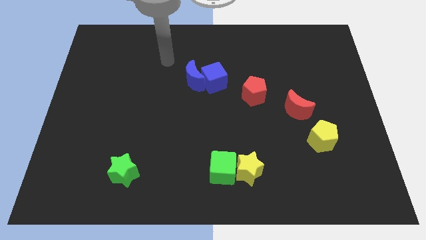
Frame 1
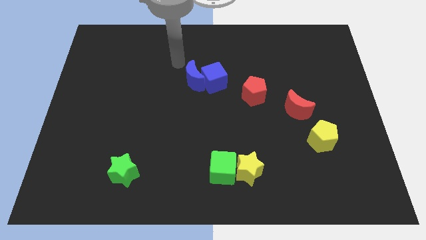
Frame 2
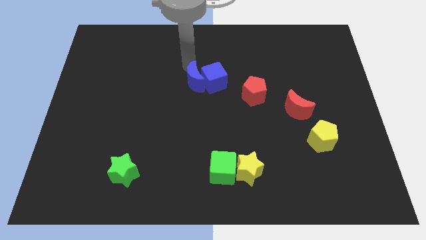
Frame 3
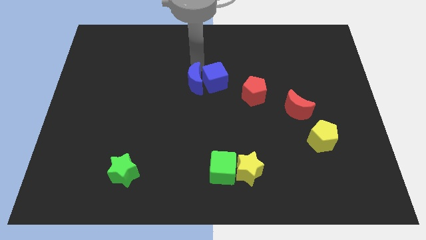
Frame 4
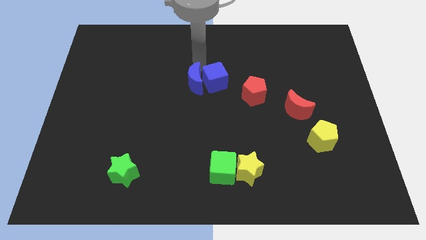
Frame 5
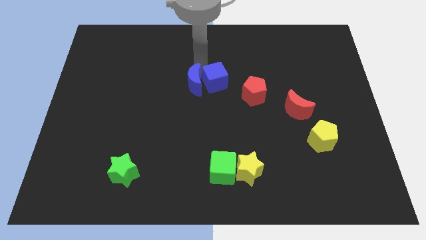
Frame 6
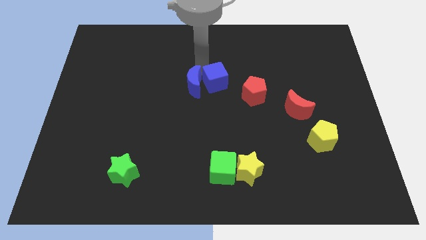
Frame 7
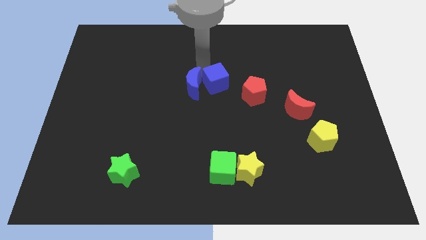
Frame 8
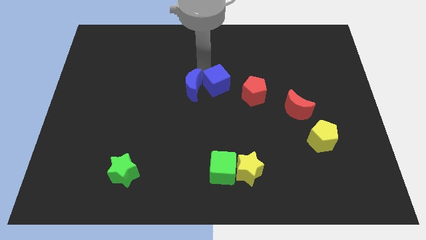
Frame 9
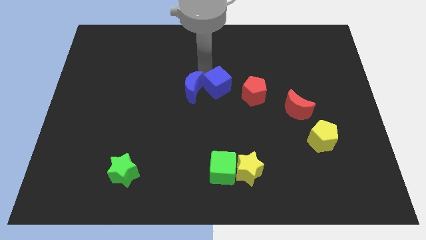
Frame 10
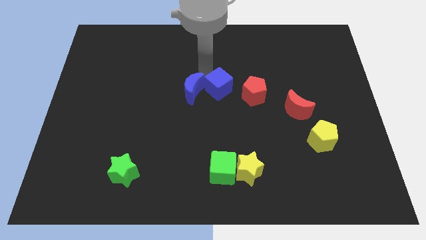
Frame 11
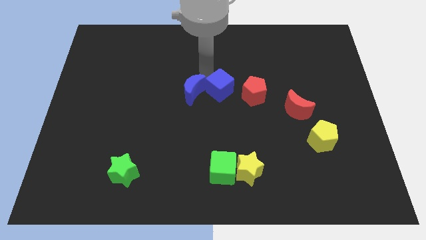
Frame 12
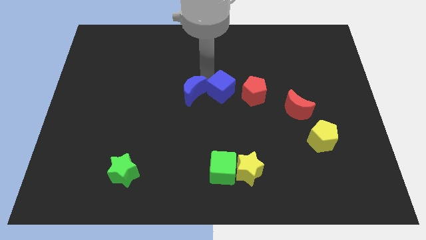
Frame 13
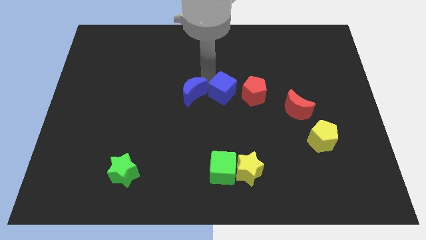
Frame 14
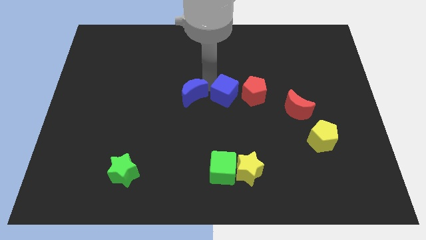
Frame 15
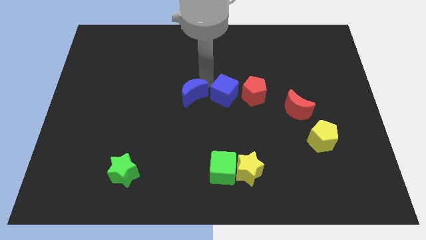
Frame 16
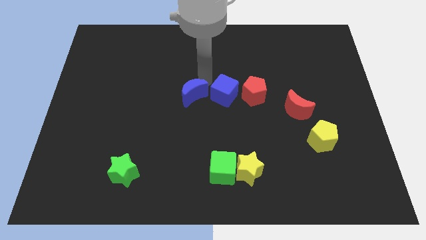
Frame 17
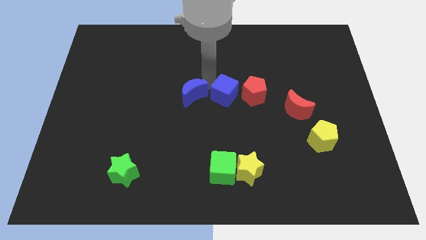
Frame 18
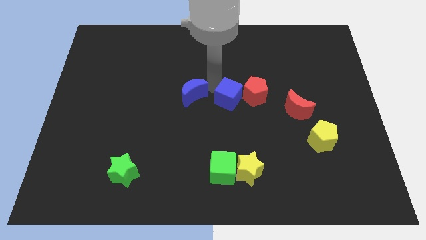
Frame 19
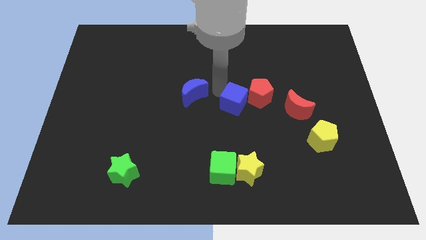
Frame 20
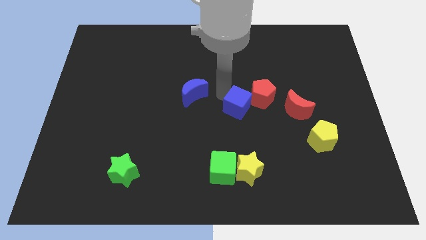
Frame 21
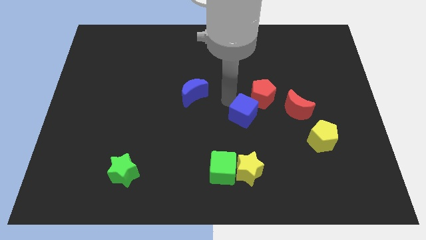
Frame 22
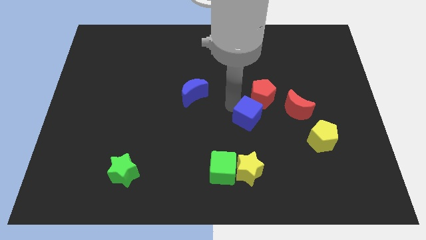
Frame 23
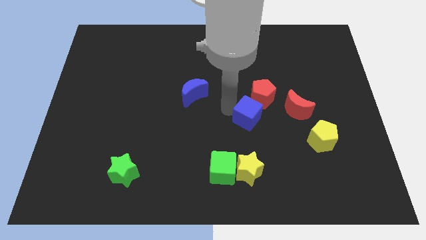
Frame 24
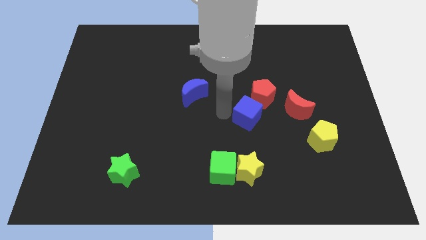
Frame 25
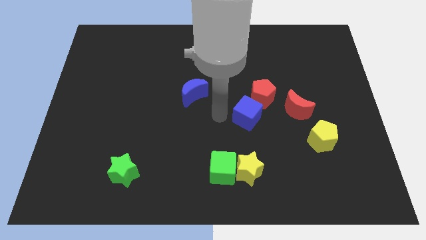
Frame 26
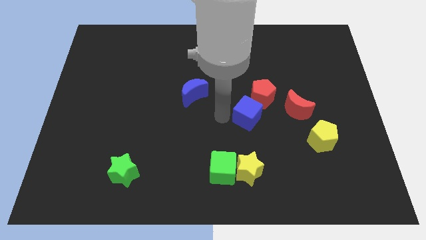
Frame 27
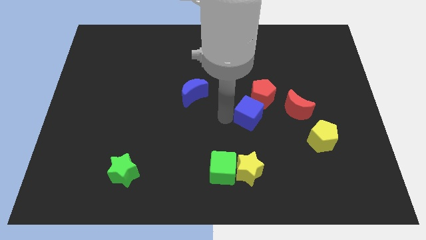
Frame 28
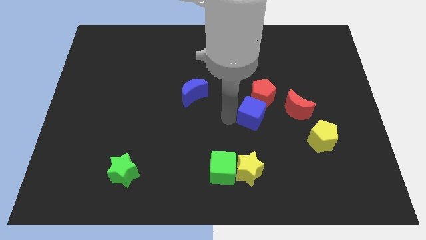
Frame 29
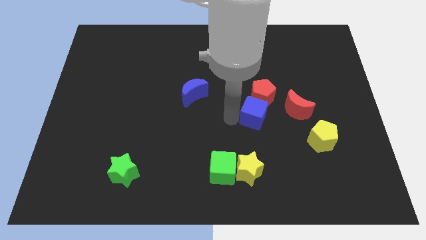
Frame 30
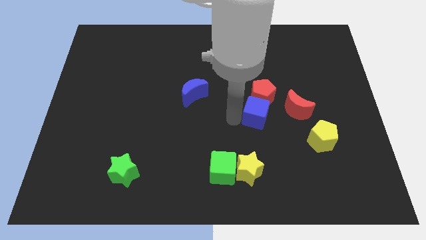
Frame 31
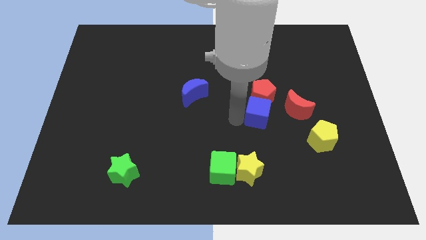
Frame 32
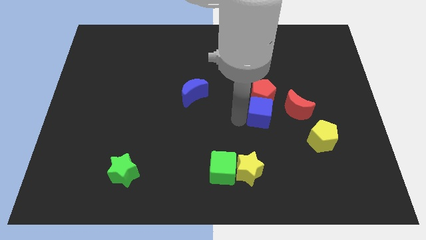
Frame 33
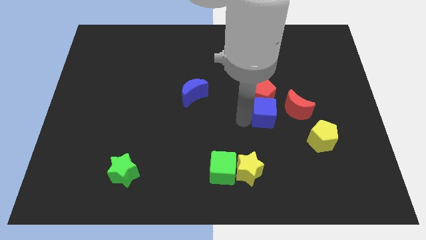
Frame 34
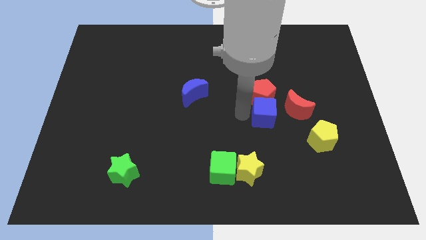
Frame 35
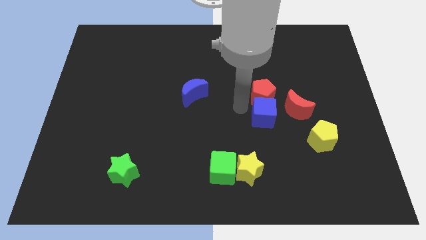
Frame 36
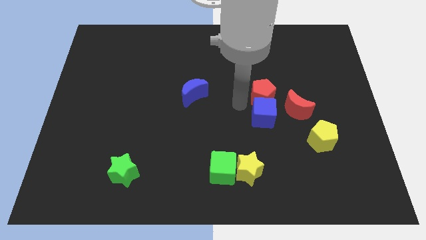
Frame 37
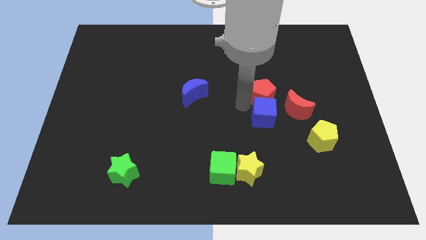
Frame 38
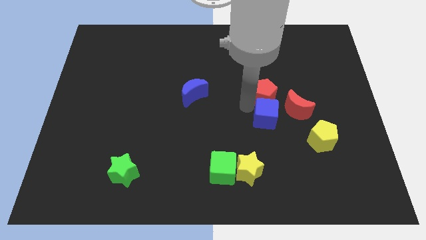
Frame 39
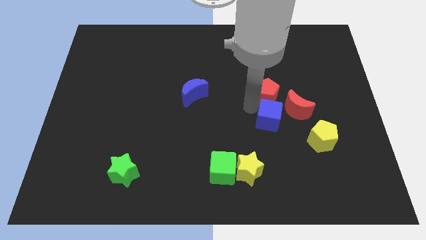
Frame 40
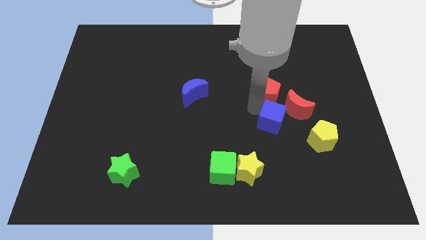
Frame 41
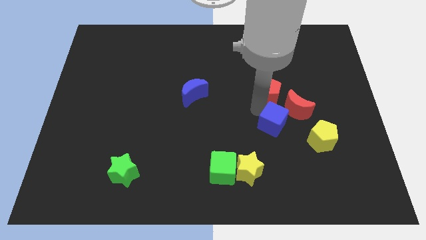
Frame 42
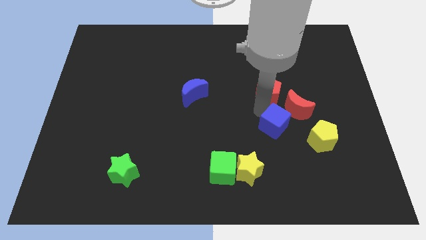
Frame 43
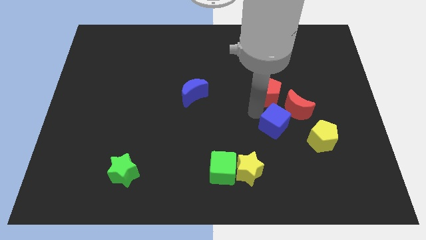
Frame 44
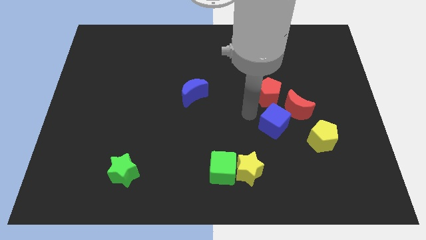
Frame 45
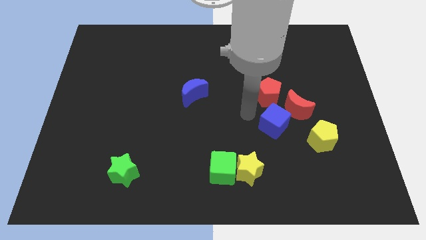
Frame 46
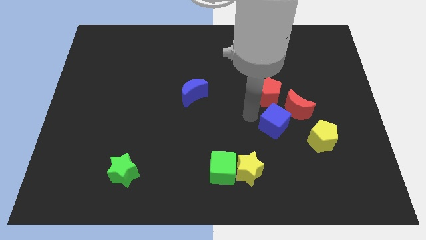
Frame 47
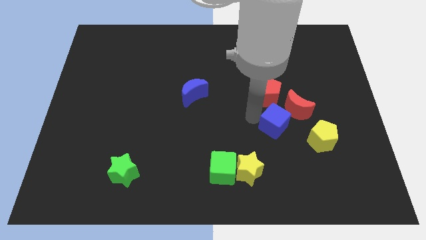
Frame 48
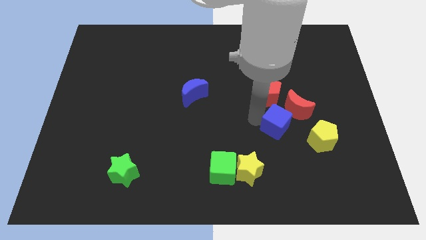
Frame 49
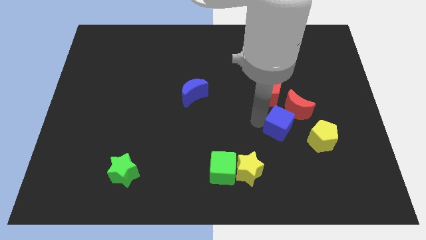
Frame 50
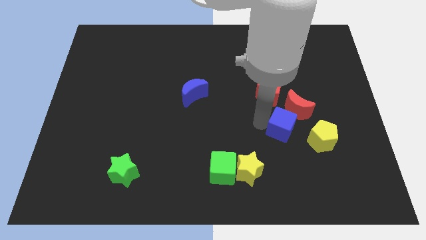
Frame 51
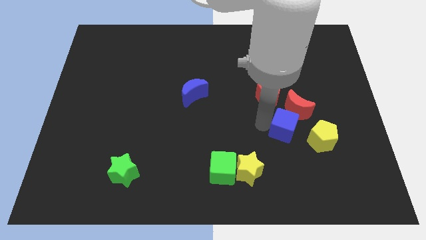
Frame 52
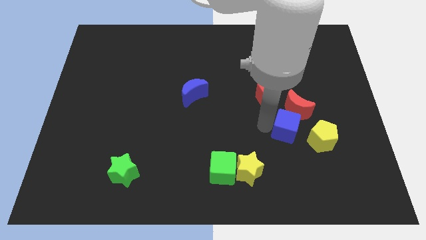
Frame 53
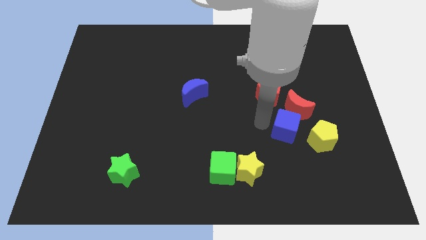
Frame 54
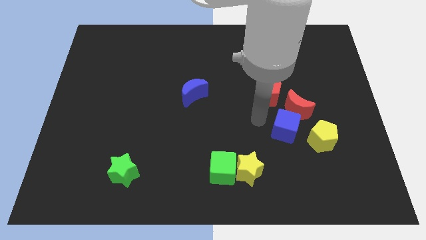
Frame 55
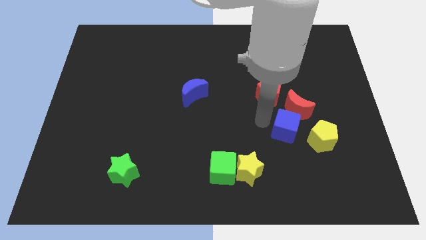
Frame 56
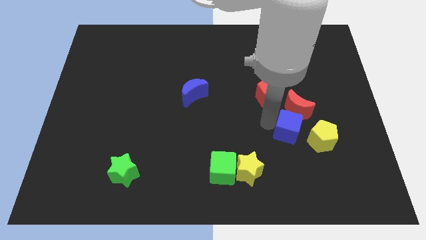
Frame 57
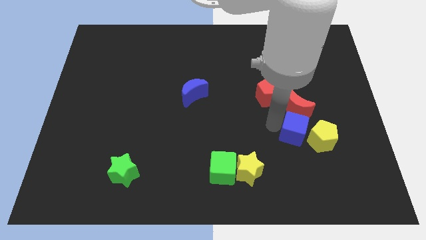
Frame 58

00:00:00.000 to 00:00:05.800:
push the blue cube close to the yellow pentagon

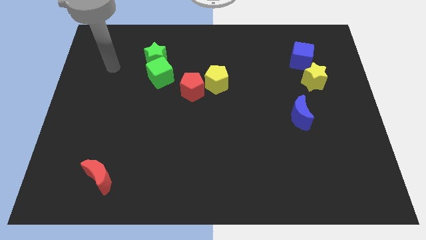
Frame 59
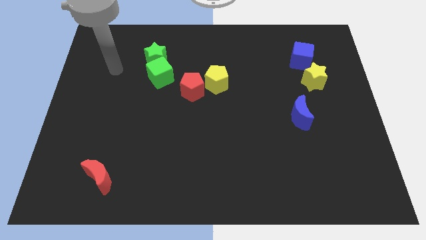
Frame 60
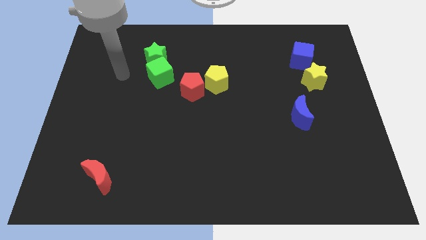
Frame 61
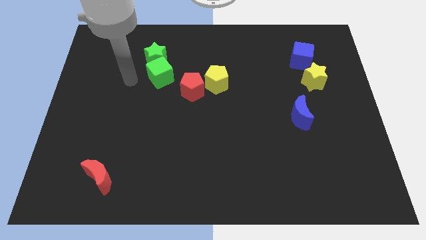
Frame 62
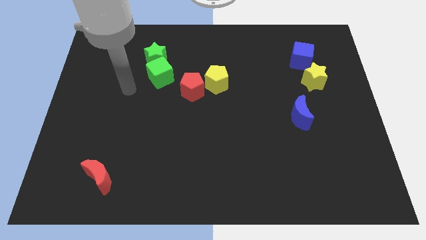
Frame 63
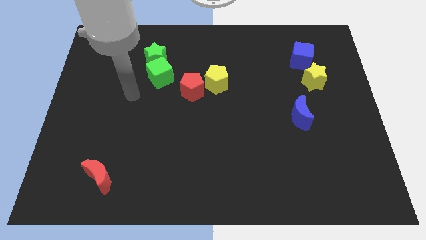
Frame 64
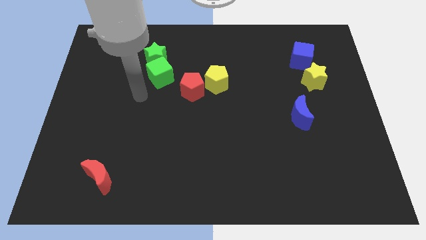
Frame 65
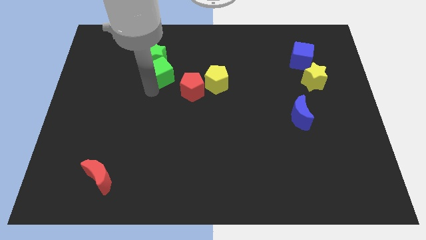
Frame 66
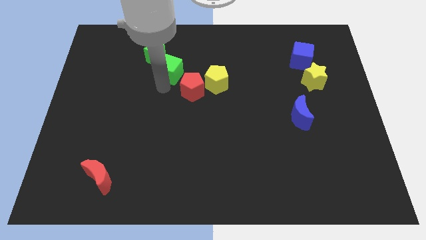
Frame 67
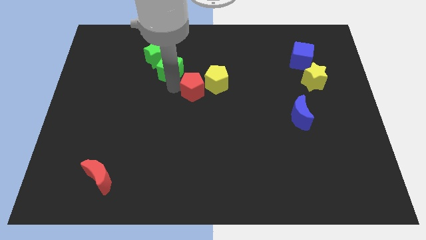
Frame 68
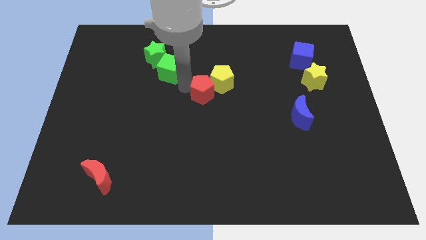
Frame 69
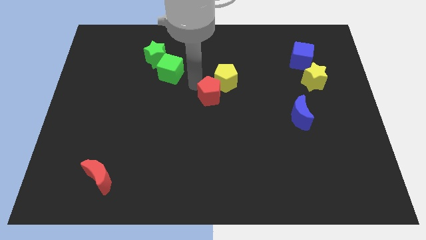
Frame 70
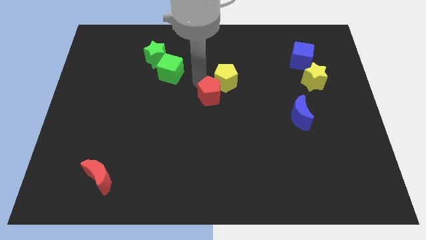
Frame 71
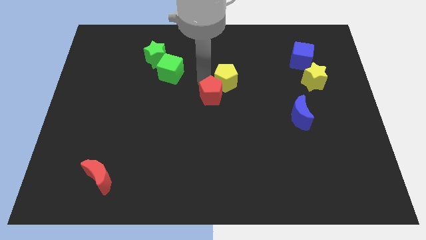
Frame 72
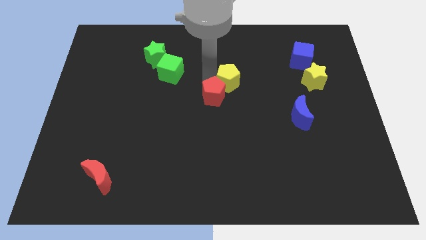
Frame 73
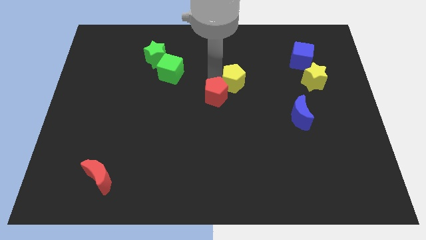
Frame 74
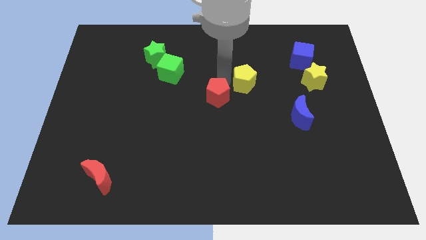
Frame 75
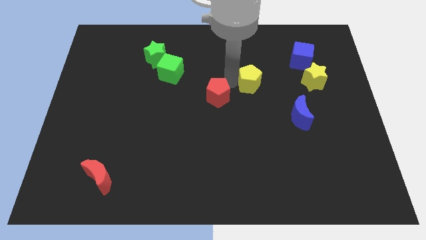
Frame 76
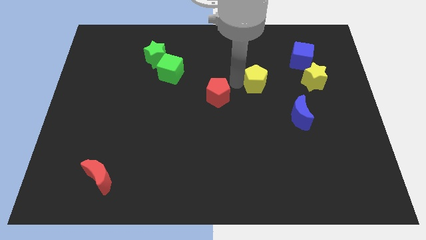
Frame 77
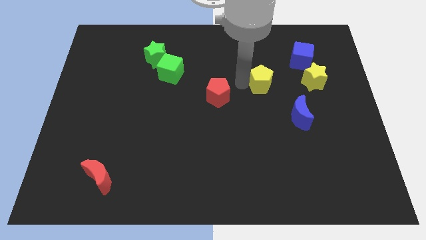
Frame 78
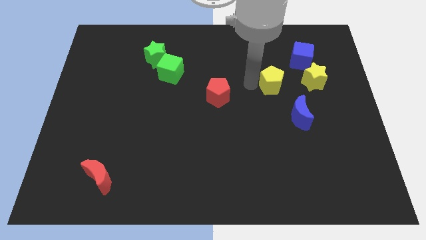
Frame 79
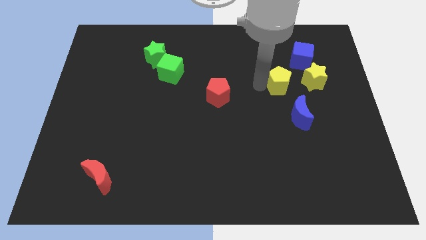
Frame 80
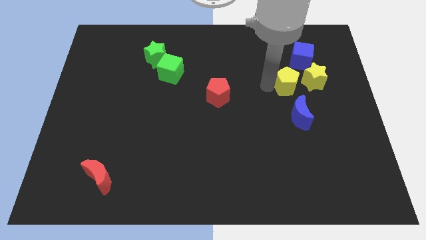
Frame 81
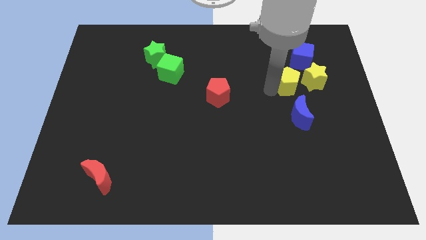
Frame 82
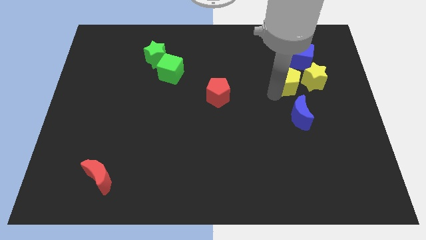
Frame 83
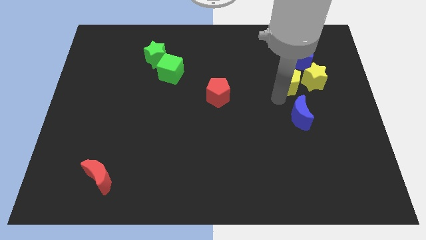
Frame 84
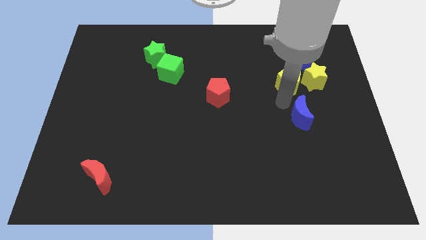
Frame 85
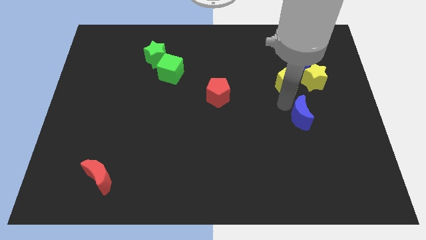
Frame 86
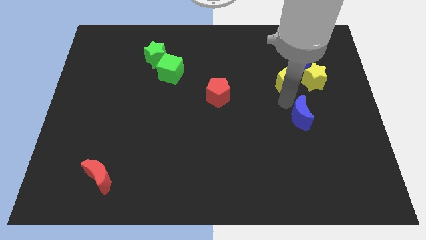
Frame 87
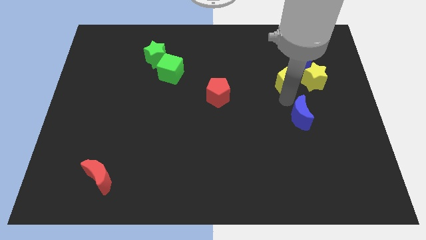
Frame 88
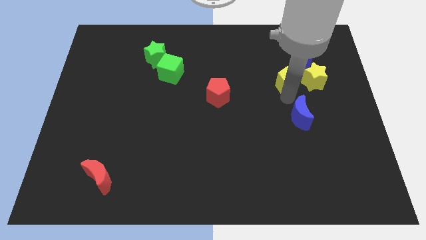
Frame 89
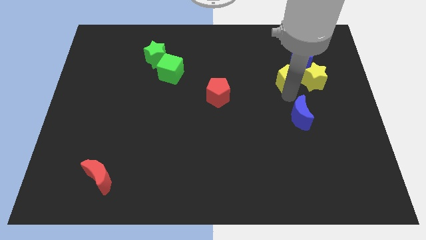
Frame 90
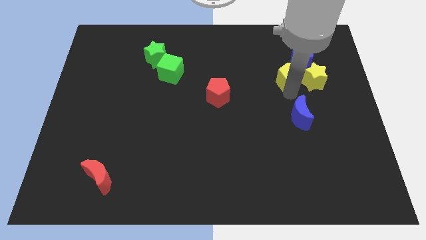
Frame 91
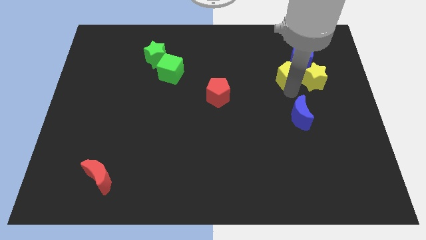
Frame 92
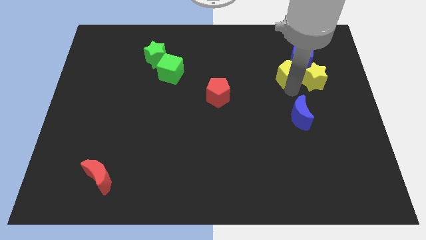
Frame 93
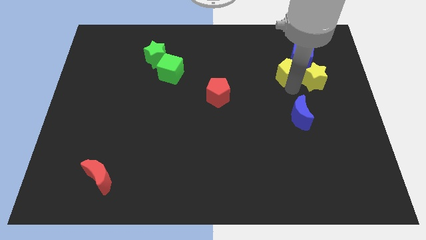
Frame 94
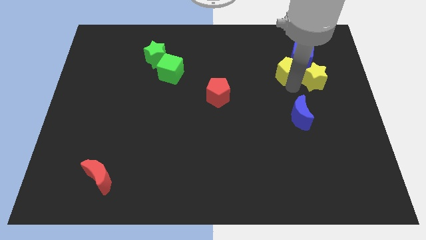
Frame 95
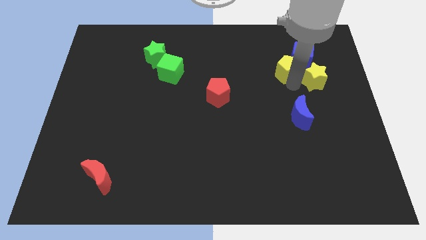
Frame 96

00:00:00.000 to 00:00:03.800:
push the yellow pentagon next to the blue cube
